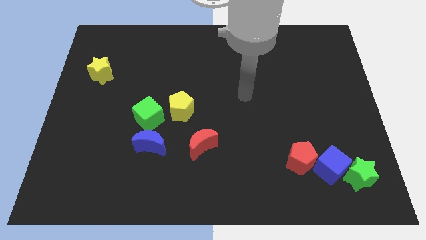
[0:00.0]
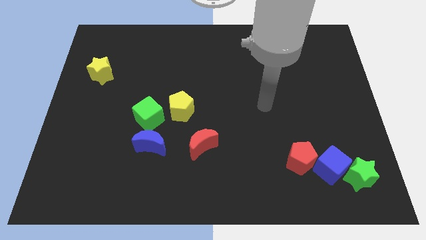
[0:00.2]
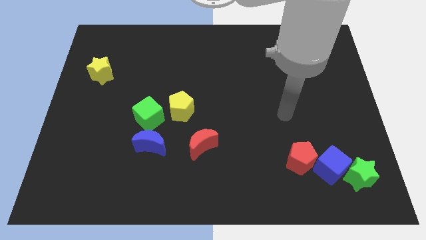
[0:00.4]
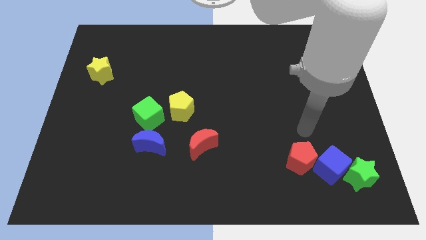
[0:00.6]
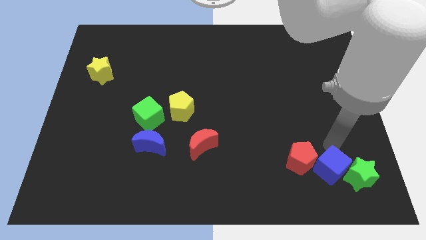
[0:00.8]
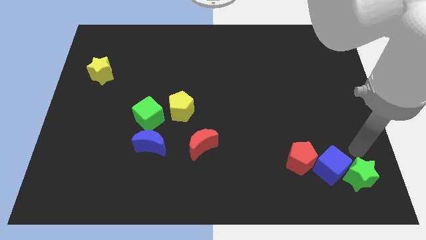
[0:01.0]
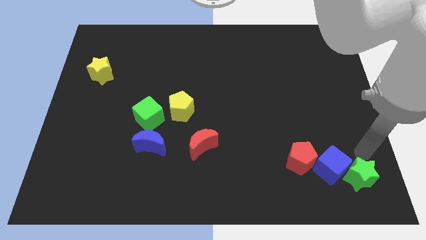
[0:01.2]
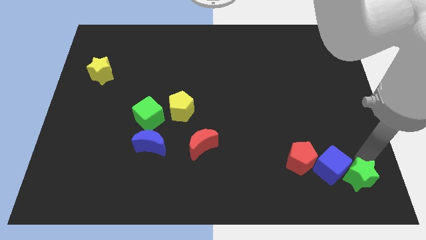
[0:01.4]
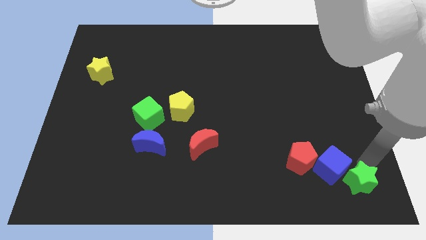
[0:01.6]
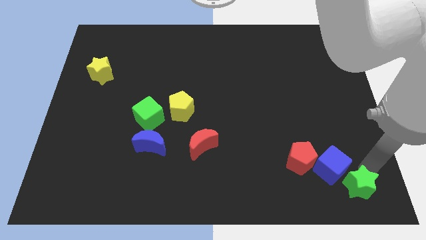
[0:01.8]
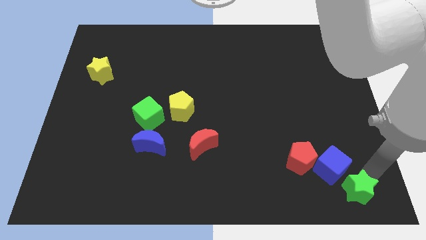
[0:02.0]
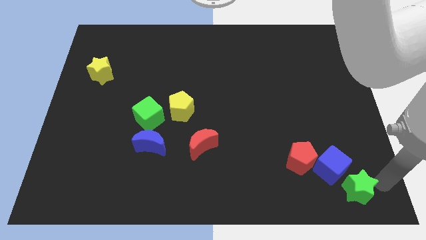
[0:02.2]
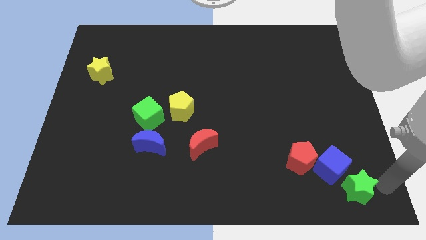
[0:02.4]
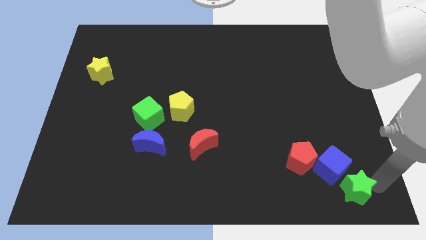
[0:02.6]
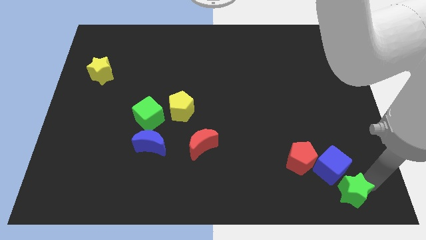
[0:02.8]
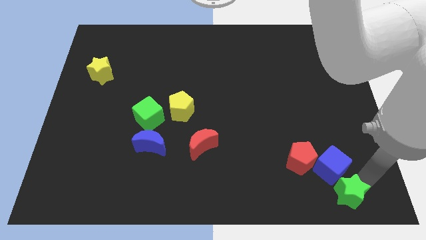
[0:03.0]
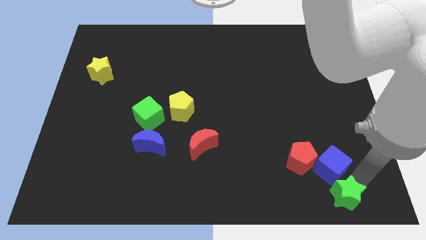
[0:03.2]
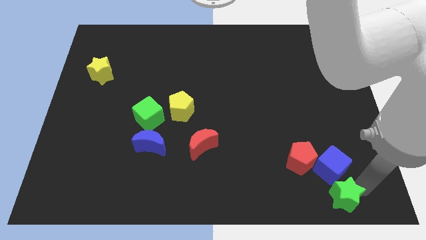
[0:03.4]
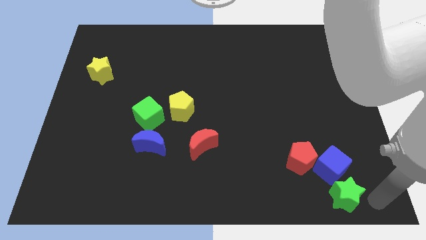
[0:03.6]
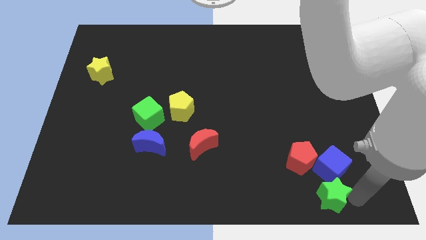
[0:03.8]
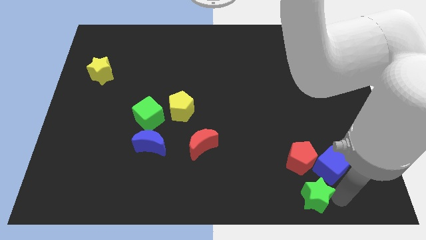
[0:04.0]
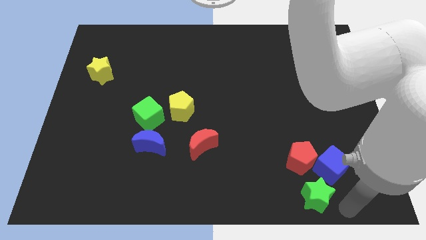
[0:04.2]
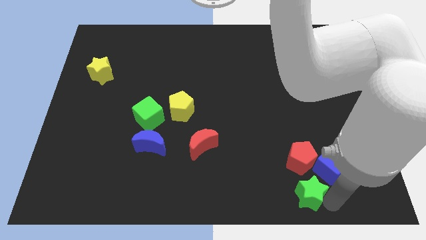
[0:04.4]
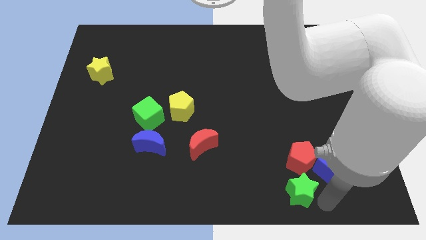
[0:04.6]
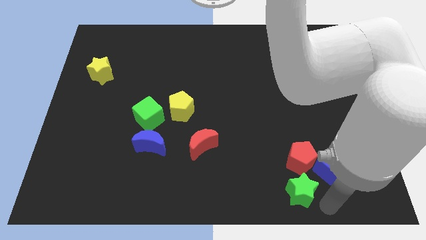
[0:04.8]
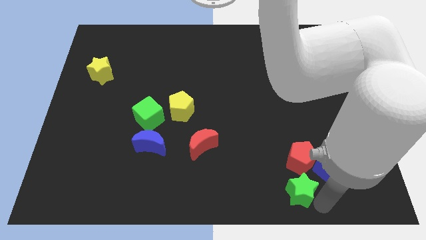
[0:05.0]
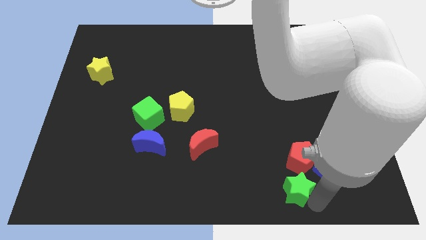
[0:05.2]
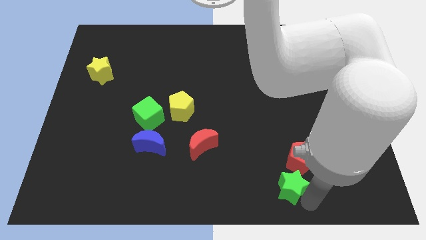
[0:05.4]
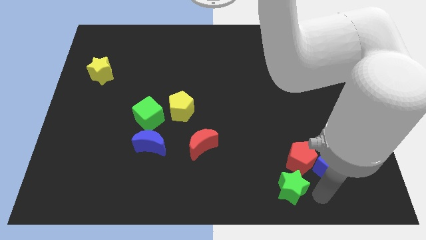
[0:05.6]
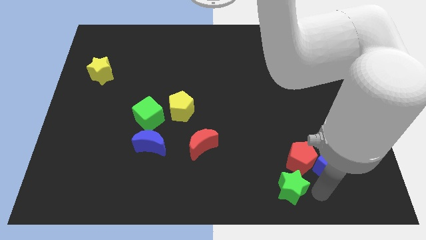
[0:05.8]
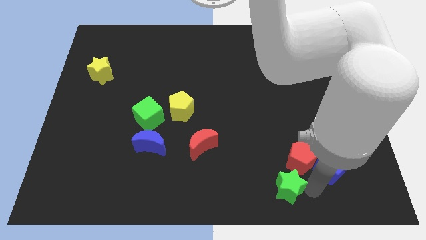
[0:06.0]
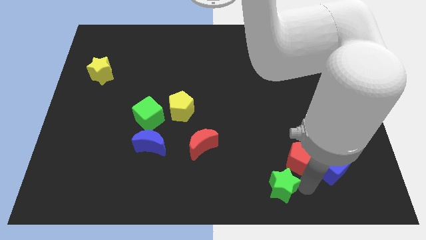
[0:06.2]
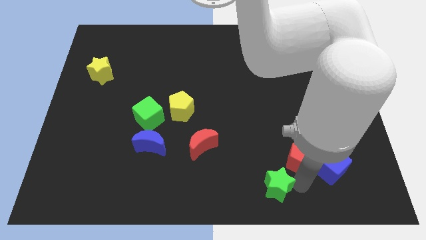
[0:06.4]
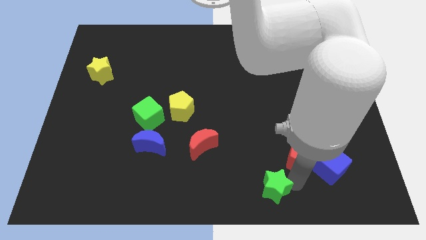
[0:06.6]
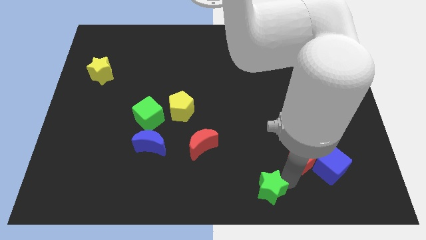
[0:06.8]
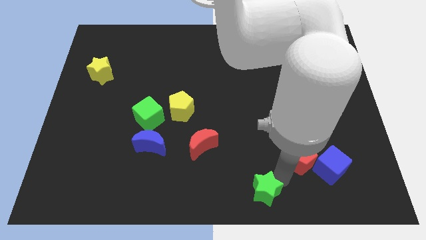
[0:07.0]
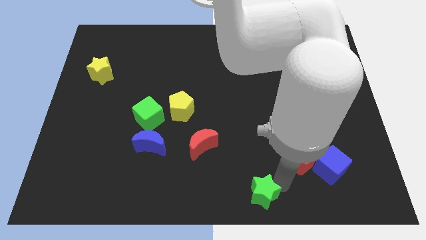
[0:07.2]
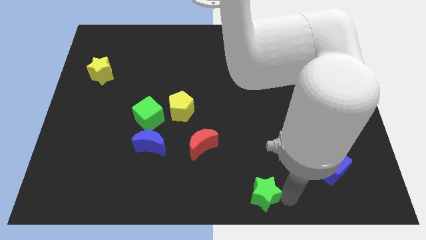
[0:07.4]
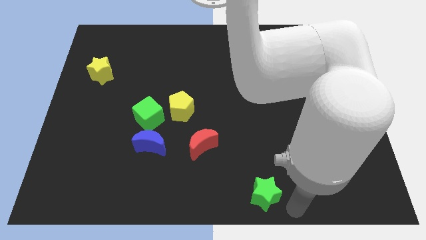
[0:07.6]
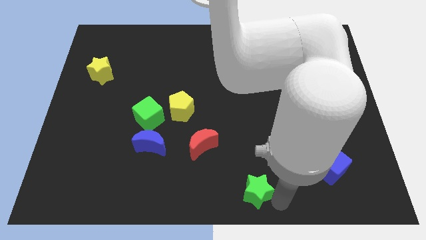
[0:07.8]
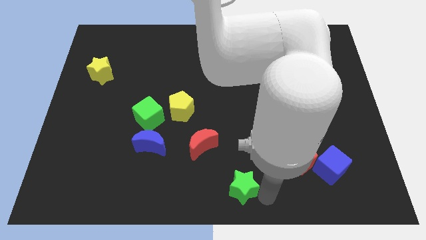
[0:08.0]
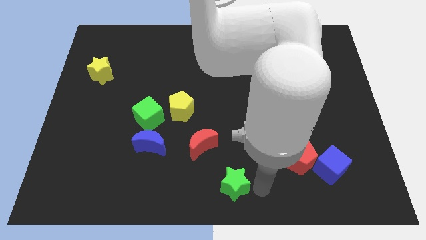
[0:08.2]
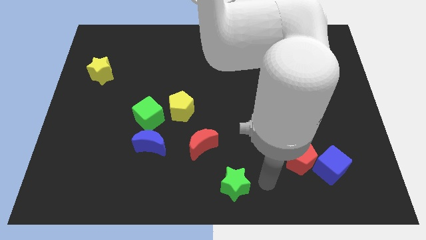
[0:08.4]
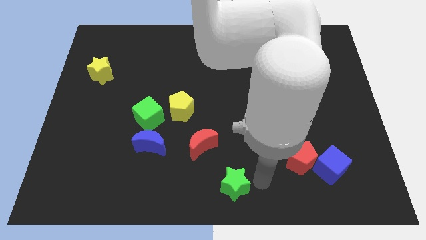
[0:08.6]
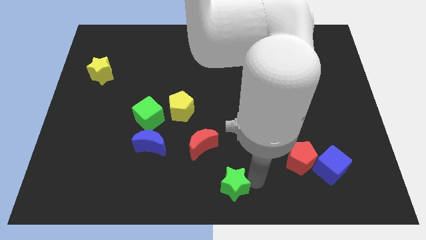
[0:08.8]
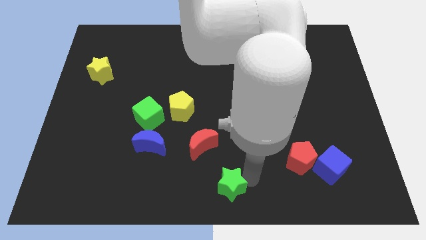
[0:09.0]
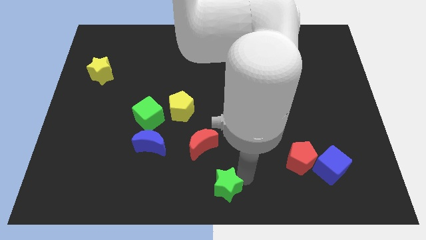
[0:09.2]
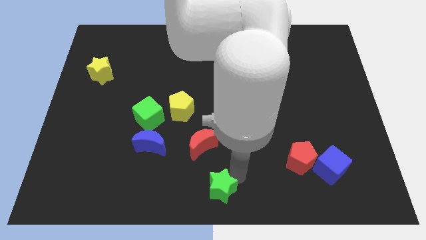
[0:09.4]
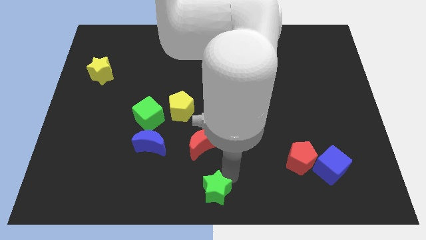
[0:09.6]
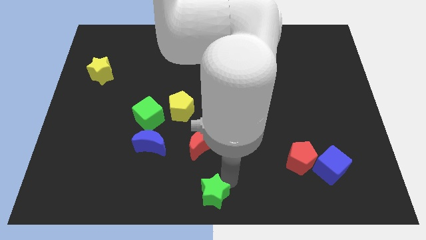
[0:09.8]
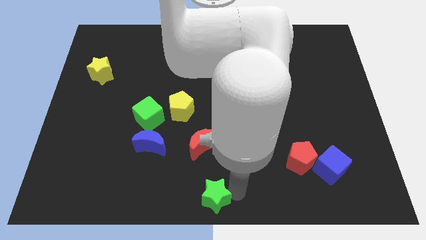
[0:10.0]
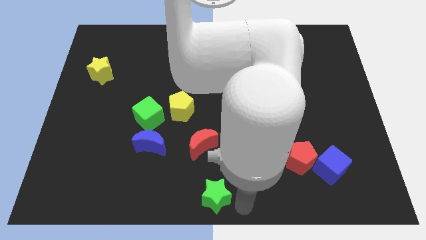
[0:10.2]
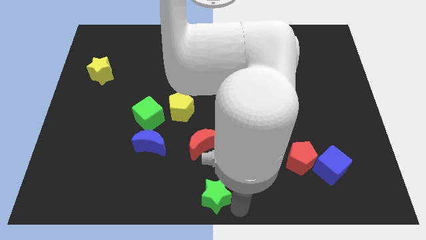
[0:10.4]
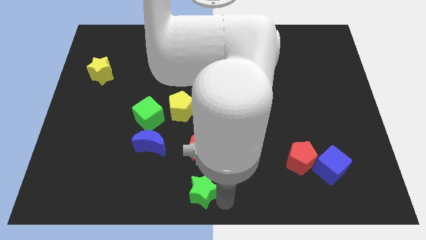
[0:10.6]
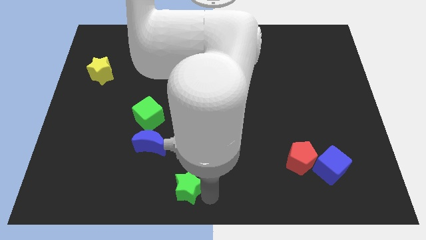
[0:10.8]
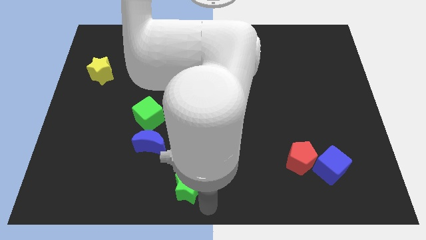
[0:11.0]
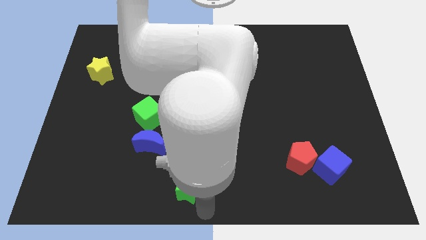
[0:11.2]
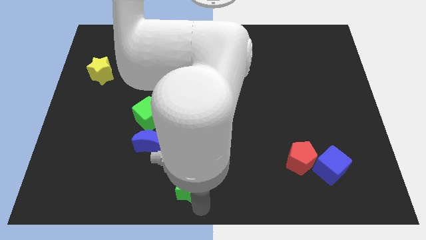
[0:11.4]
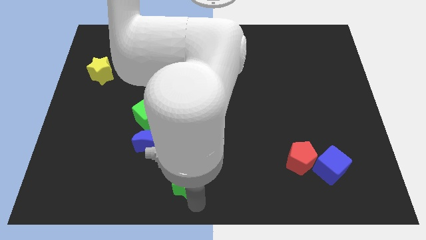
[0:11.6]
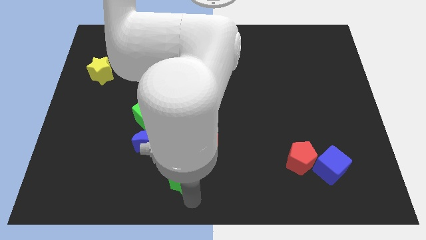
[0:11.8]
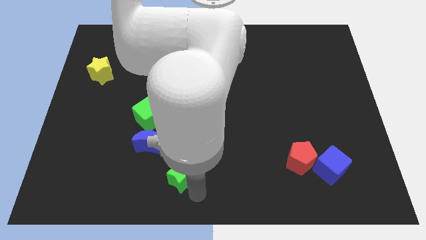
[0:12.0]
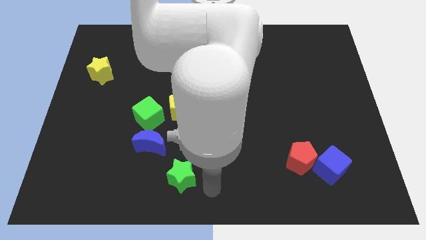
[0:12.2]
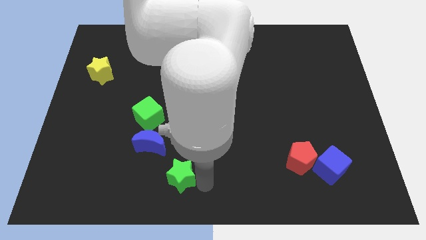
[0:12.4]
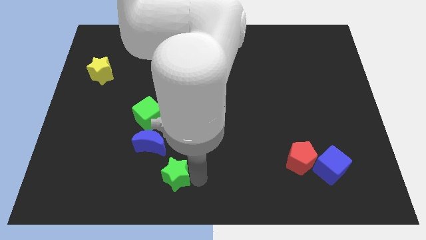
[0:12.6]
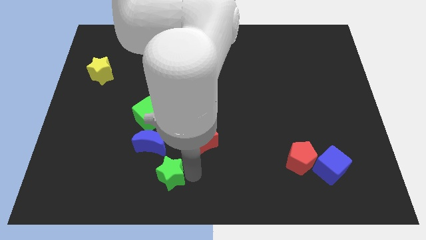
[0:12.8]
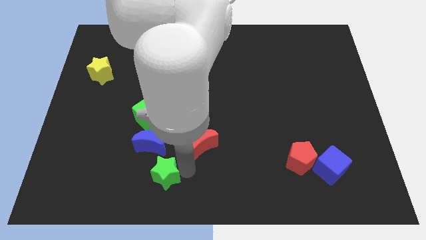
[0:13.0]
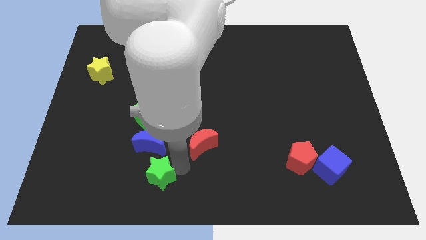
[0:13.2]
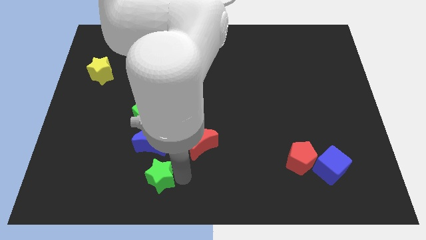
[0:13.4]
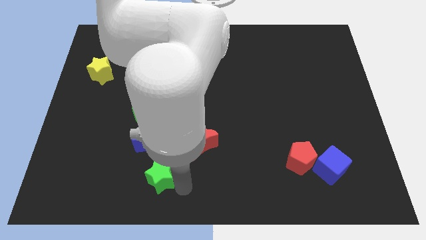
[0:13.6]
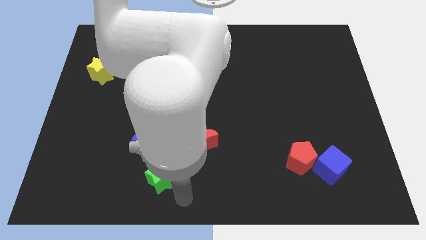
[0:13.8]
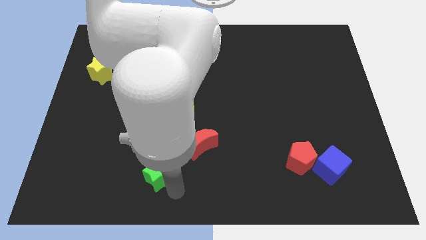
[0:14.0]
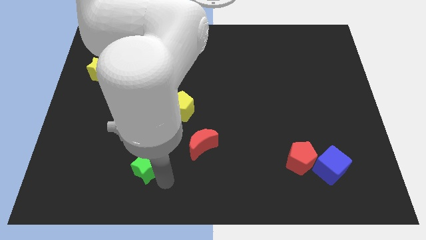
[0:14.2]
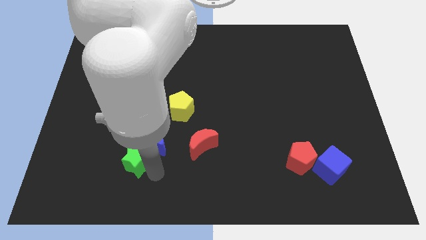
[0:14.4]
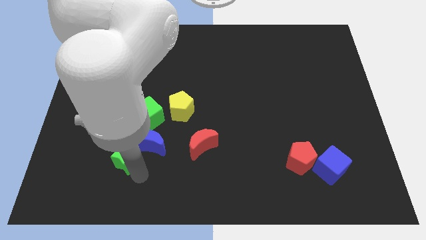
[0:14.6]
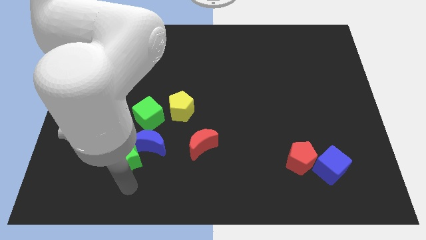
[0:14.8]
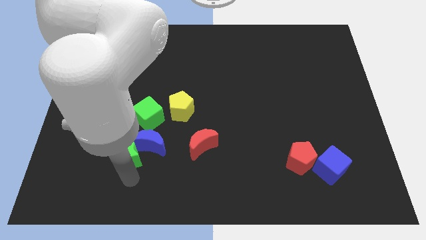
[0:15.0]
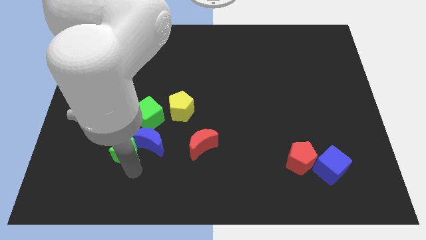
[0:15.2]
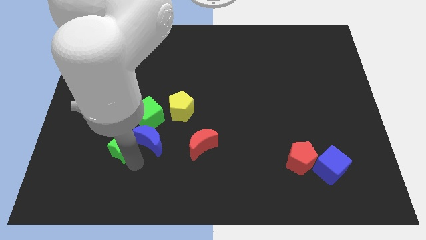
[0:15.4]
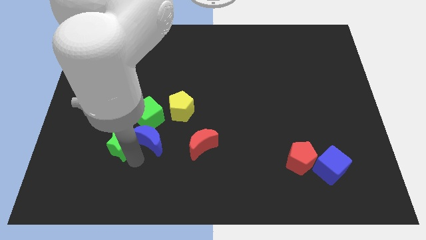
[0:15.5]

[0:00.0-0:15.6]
slide the green star to the top left of the blue moon
